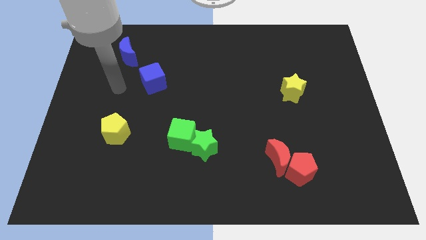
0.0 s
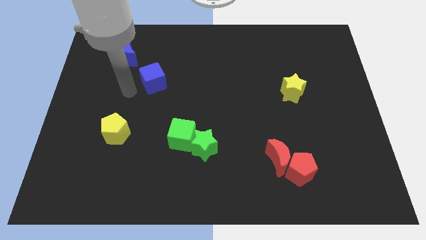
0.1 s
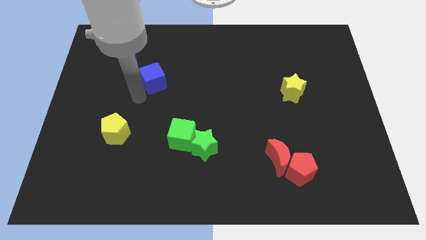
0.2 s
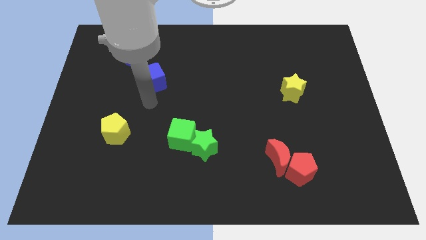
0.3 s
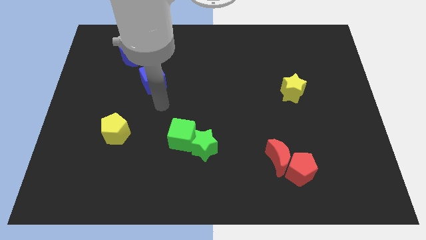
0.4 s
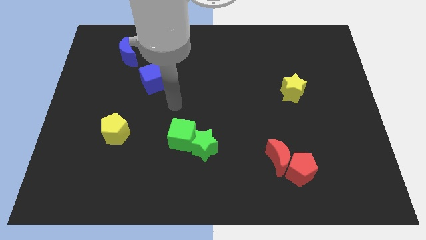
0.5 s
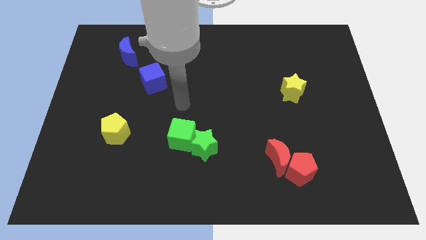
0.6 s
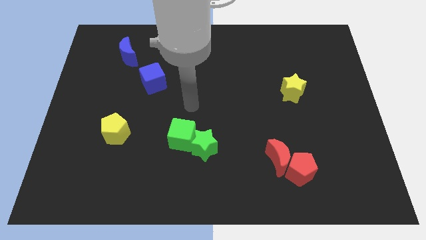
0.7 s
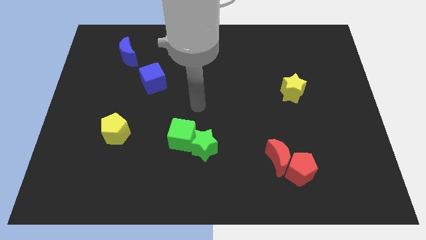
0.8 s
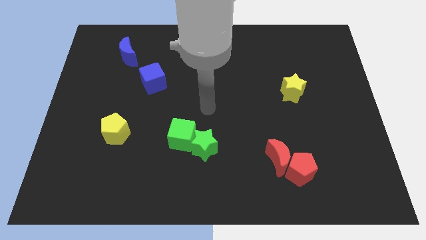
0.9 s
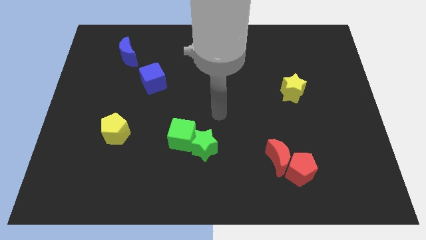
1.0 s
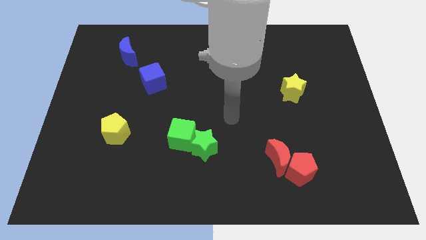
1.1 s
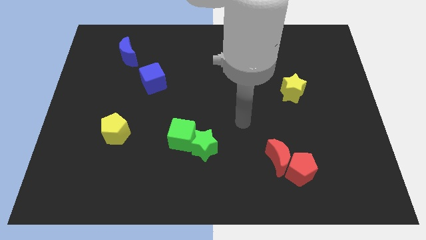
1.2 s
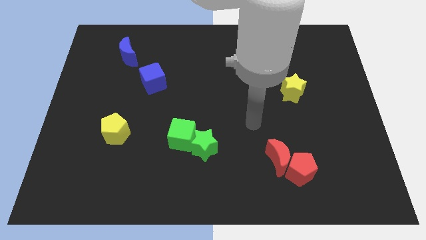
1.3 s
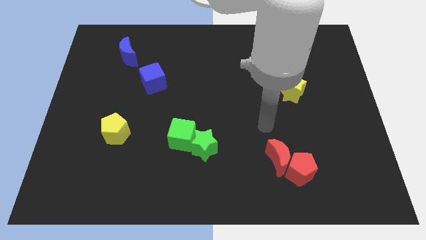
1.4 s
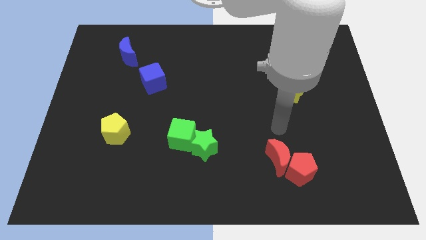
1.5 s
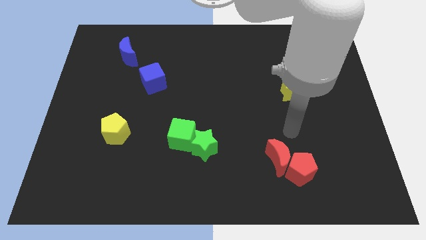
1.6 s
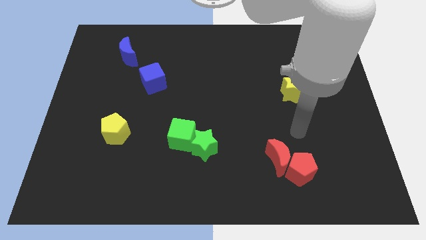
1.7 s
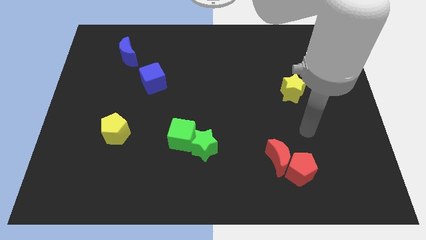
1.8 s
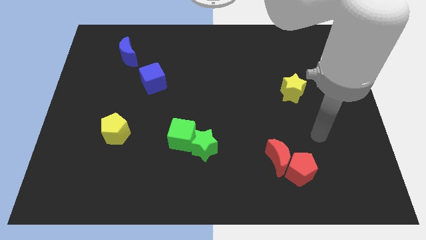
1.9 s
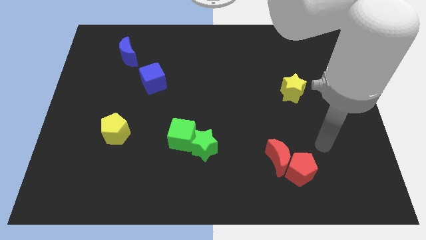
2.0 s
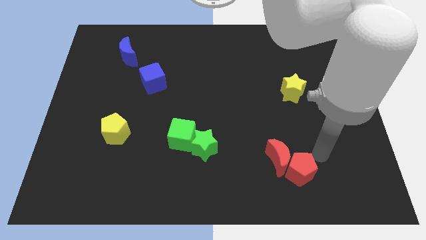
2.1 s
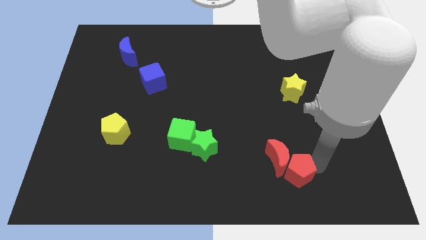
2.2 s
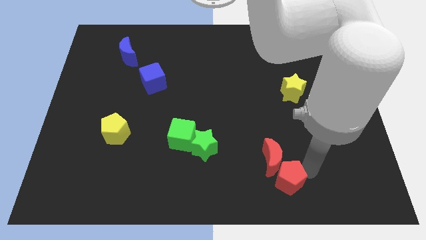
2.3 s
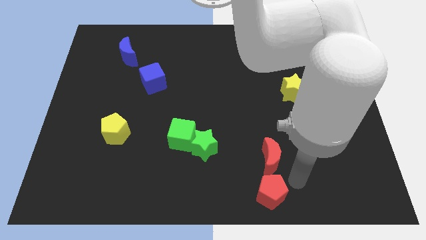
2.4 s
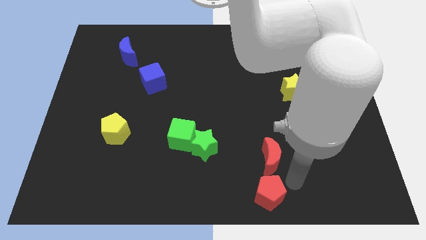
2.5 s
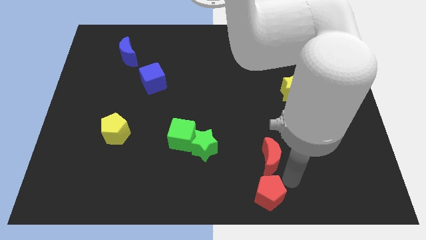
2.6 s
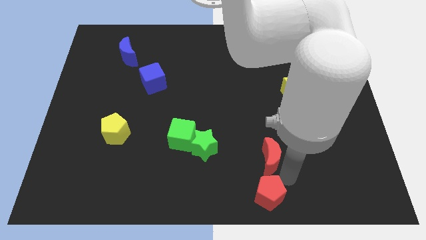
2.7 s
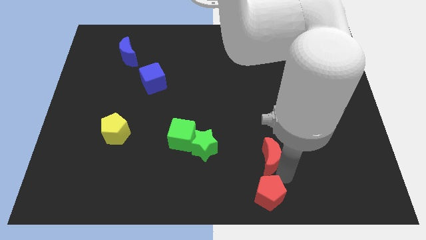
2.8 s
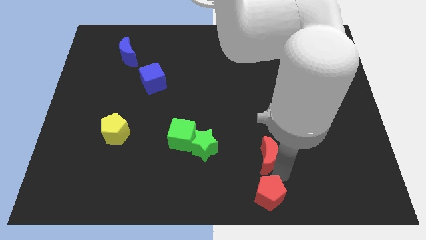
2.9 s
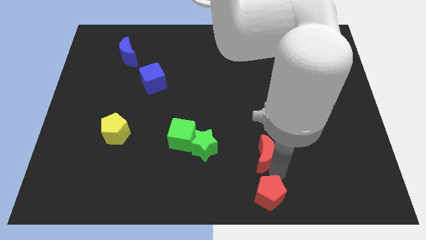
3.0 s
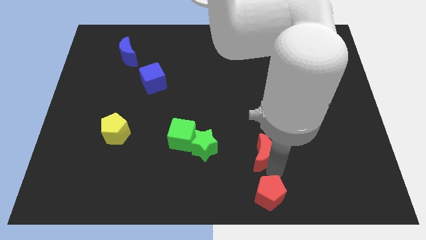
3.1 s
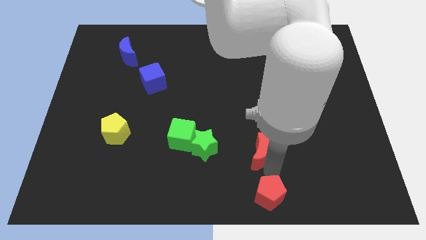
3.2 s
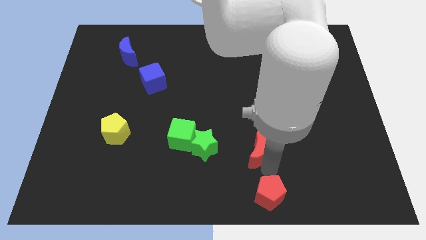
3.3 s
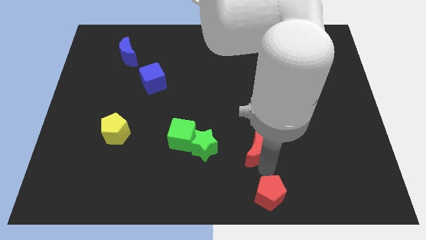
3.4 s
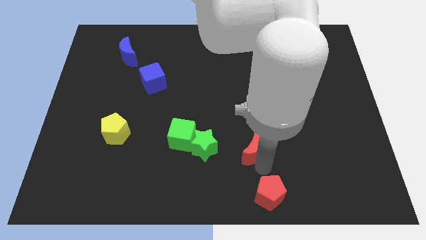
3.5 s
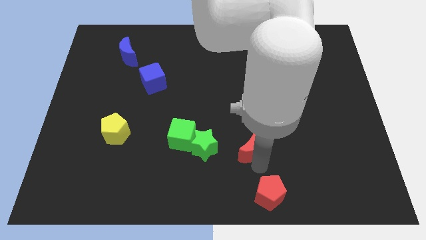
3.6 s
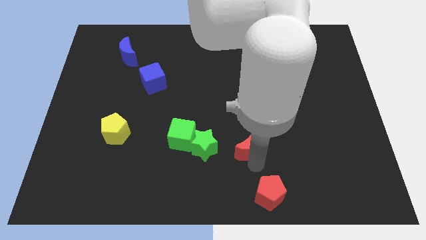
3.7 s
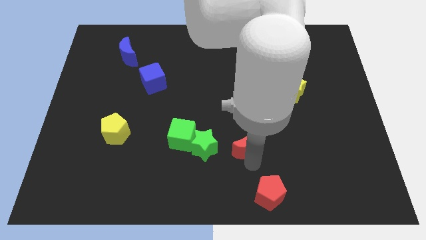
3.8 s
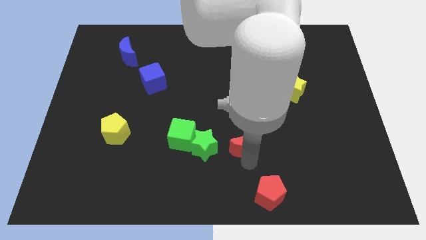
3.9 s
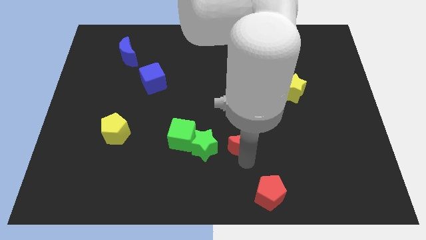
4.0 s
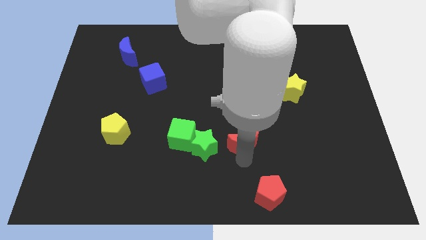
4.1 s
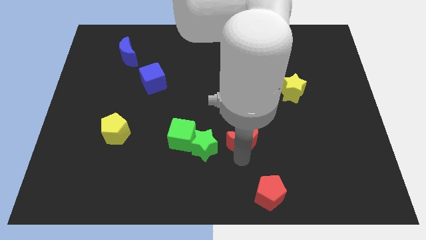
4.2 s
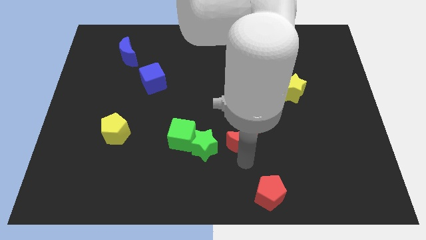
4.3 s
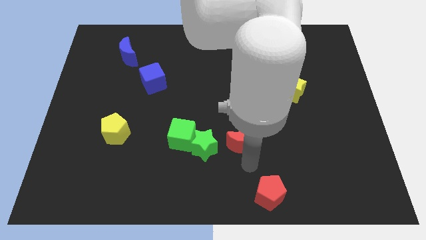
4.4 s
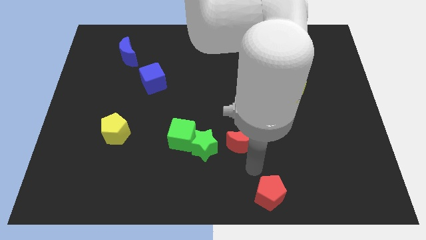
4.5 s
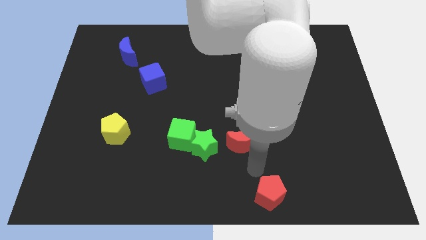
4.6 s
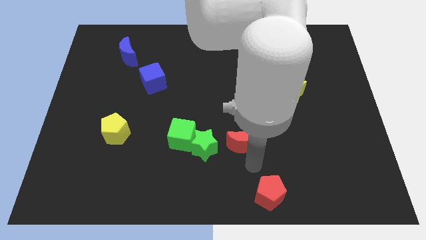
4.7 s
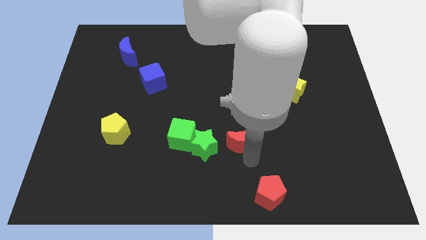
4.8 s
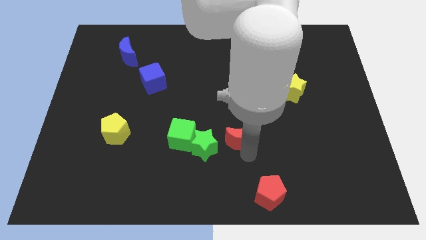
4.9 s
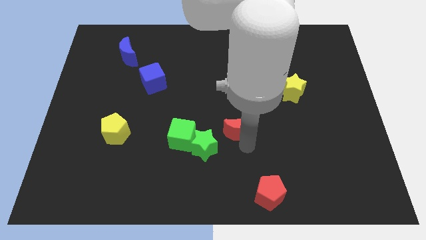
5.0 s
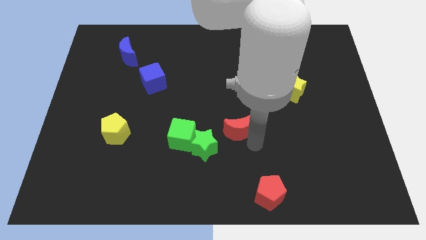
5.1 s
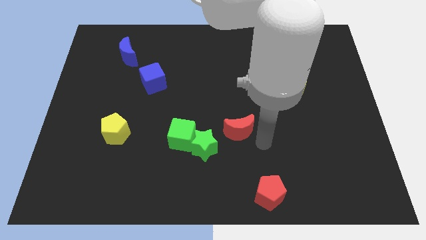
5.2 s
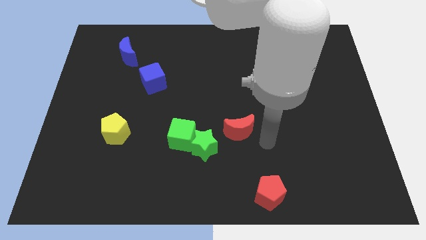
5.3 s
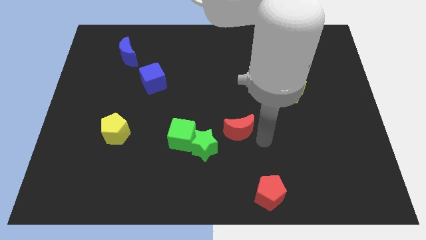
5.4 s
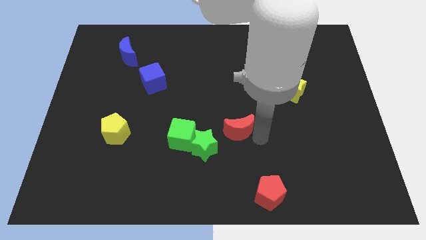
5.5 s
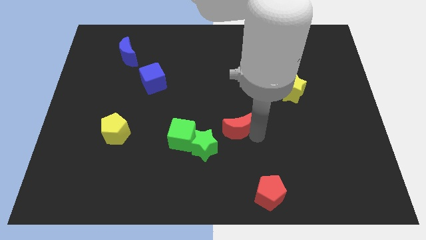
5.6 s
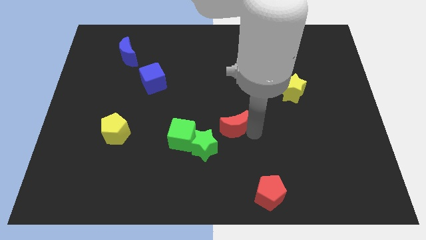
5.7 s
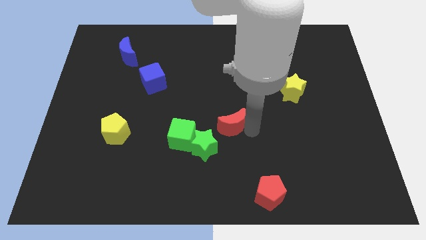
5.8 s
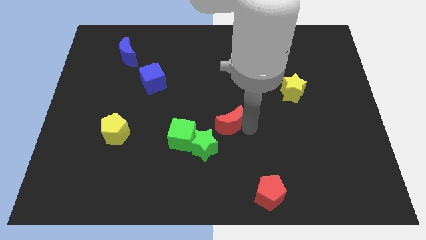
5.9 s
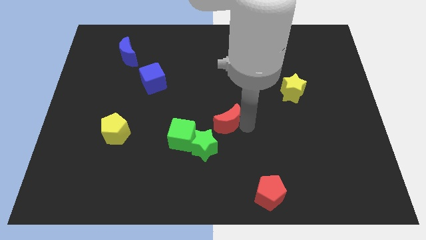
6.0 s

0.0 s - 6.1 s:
push the red moon to the top right of the green cube

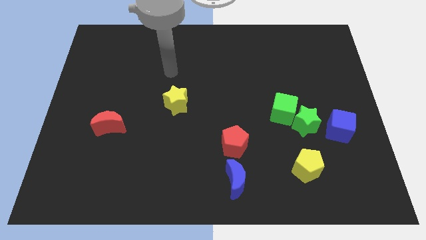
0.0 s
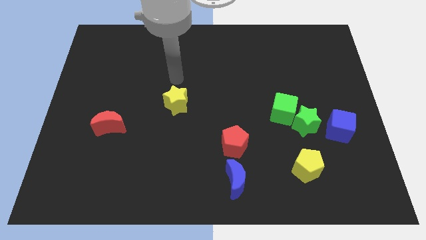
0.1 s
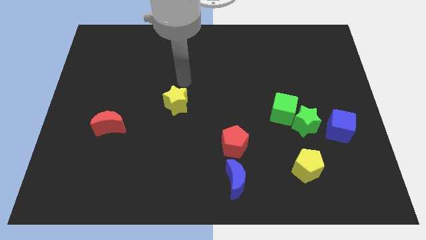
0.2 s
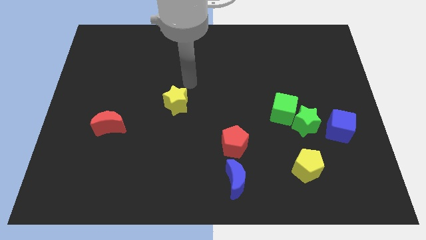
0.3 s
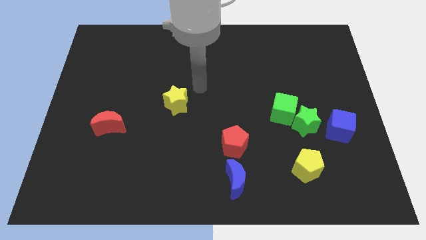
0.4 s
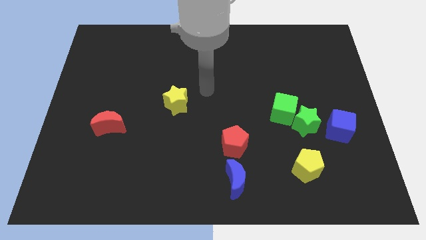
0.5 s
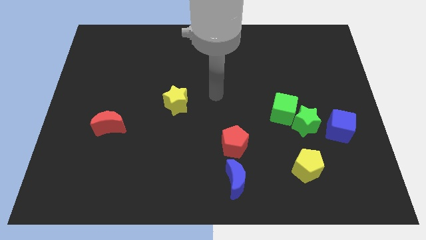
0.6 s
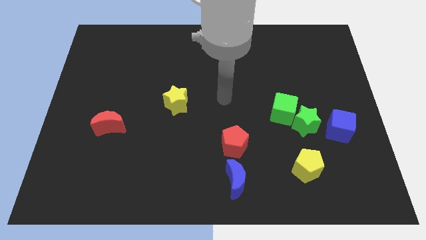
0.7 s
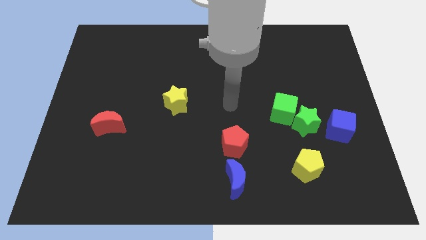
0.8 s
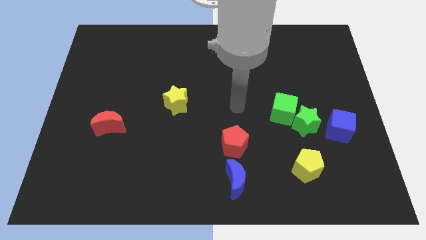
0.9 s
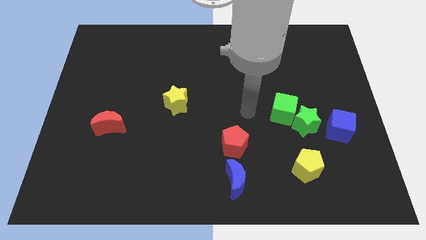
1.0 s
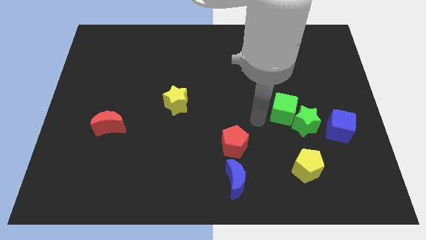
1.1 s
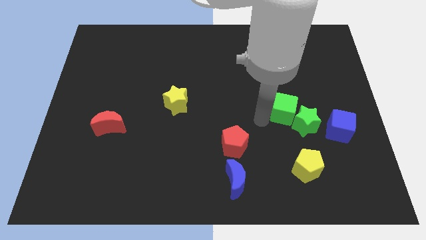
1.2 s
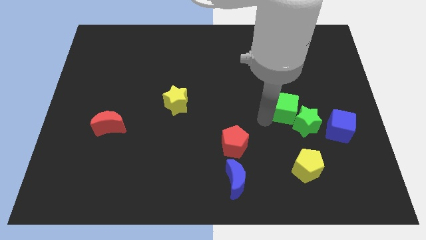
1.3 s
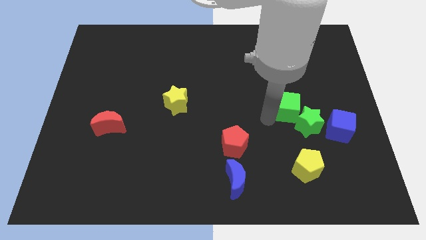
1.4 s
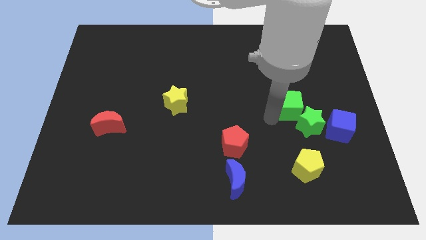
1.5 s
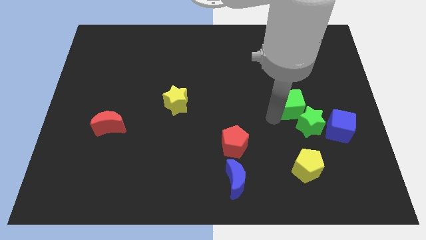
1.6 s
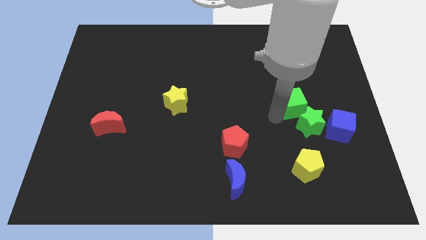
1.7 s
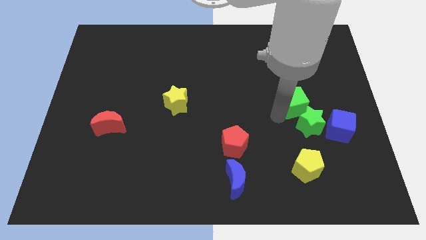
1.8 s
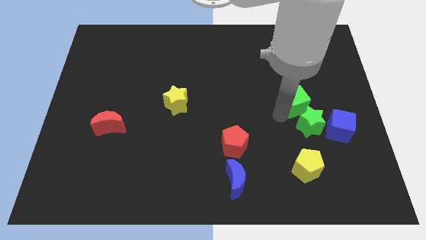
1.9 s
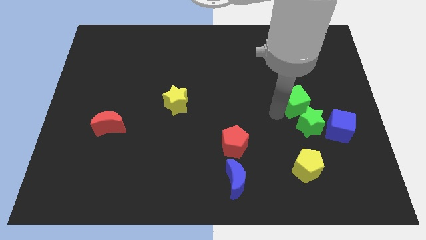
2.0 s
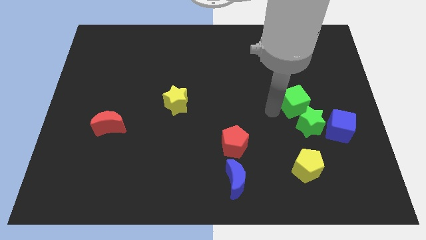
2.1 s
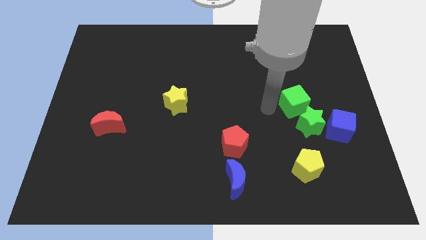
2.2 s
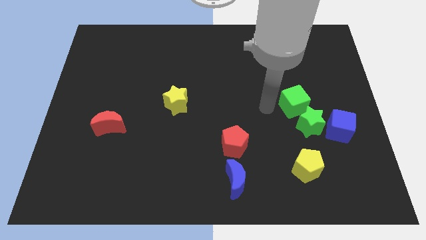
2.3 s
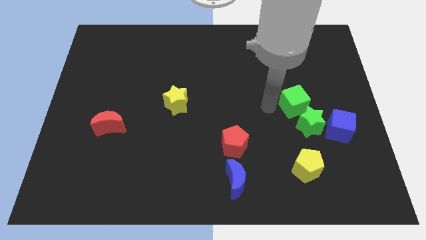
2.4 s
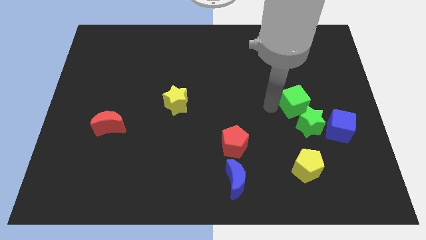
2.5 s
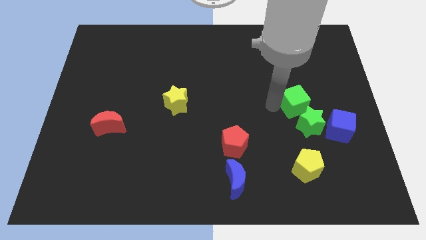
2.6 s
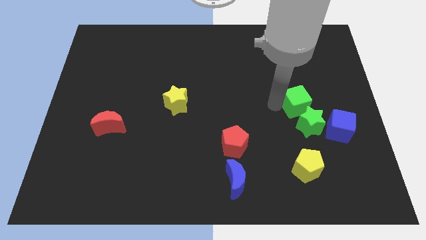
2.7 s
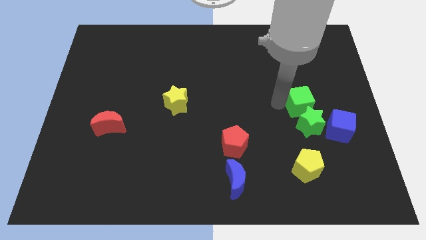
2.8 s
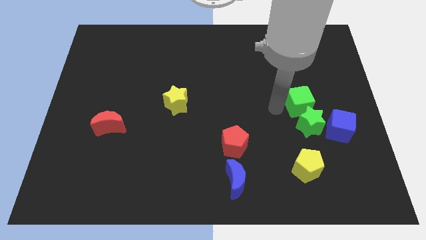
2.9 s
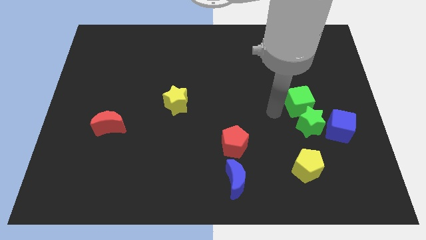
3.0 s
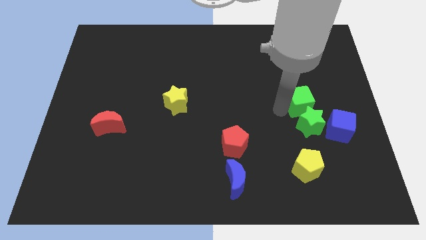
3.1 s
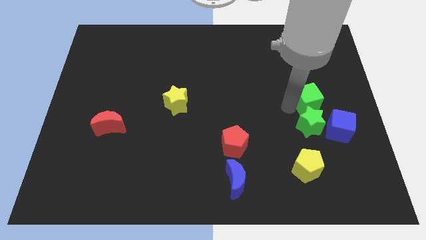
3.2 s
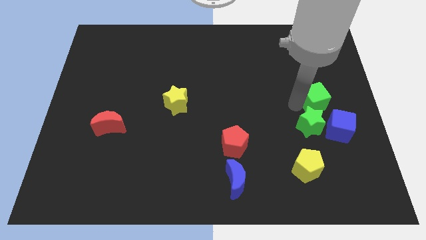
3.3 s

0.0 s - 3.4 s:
move the green cube above the blue cube
